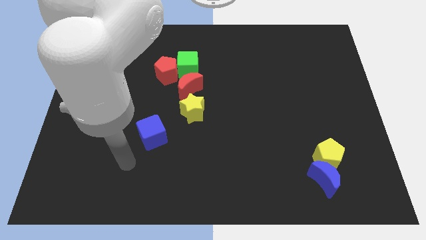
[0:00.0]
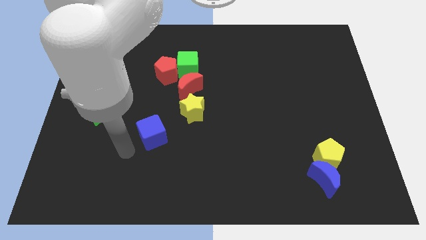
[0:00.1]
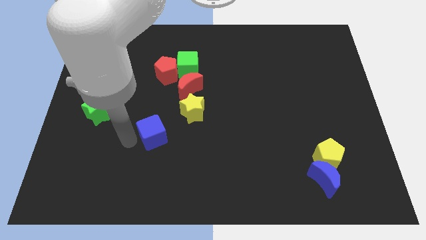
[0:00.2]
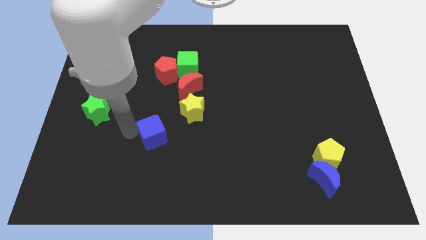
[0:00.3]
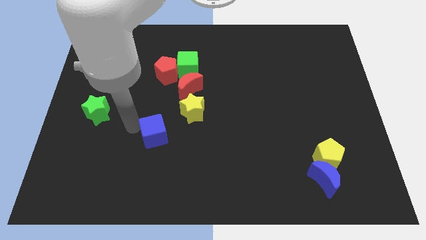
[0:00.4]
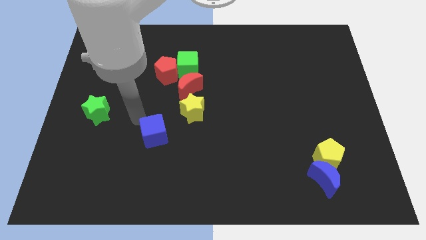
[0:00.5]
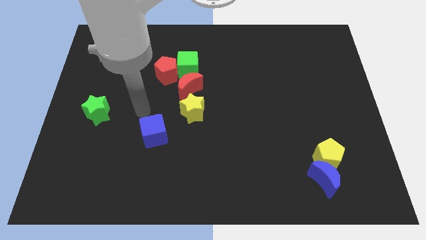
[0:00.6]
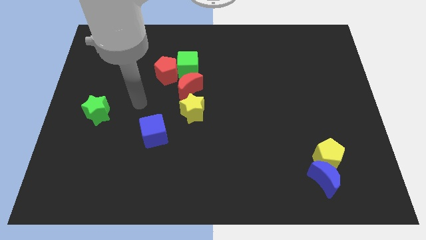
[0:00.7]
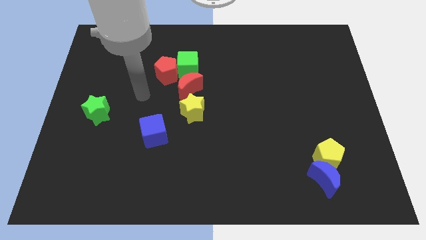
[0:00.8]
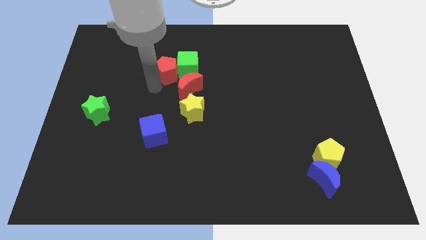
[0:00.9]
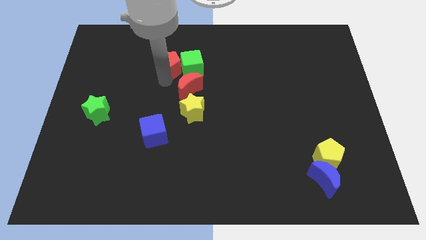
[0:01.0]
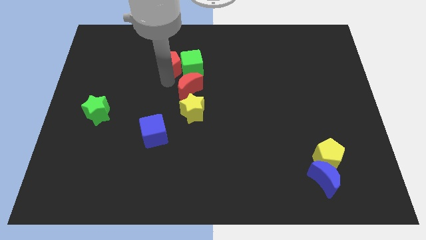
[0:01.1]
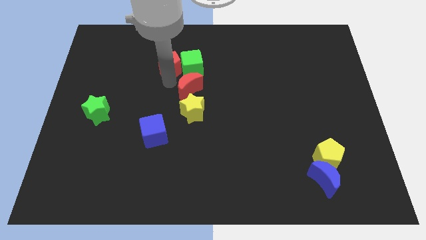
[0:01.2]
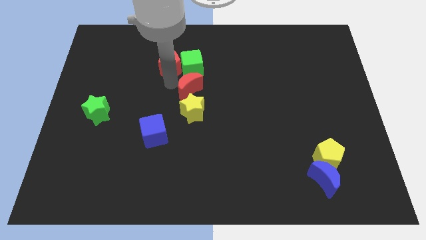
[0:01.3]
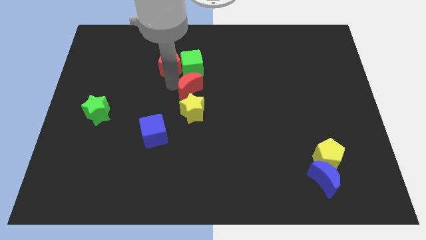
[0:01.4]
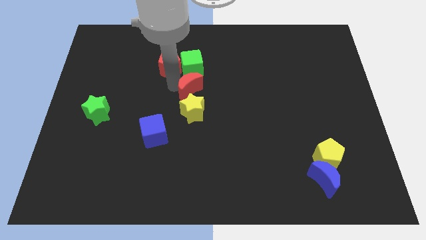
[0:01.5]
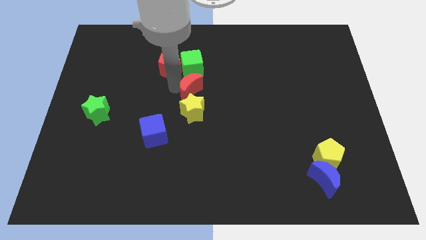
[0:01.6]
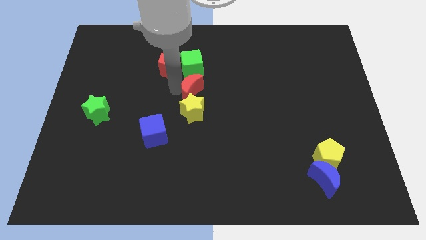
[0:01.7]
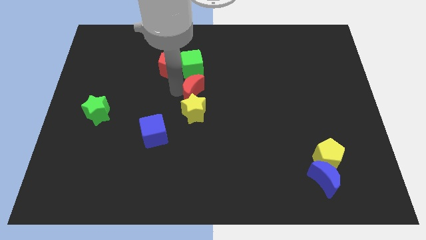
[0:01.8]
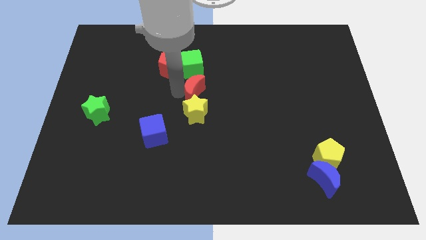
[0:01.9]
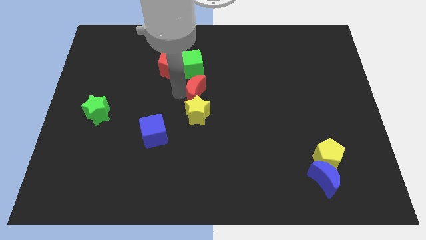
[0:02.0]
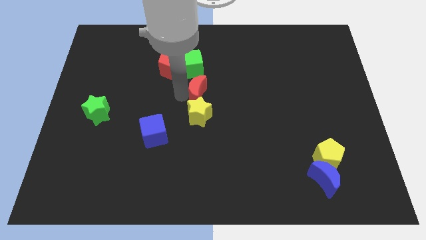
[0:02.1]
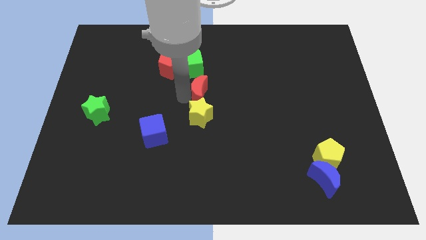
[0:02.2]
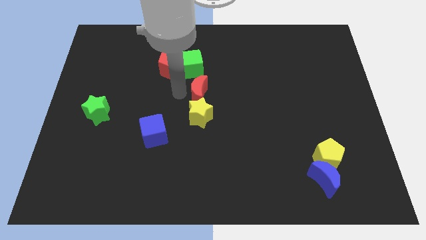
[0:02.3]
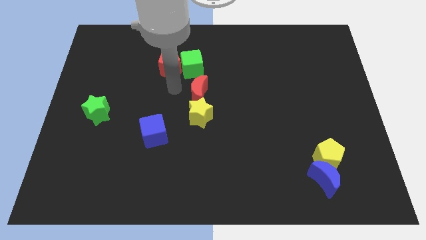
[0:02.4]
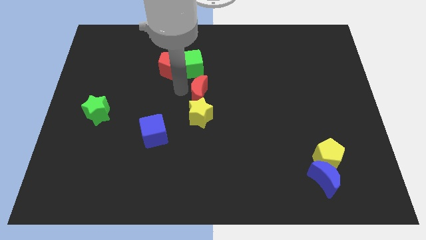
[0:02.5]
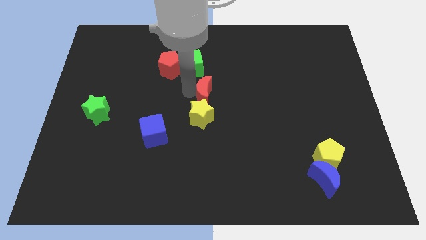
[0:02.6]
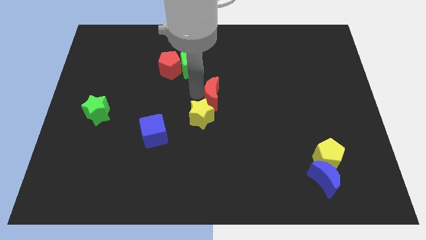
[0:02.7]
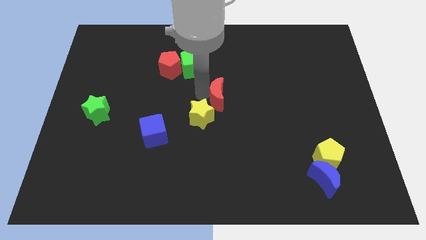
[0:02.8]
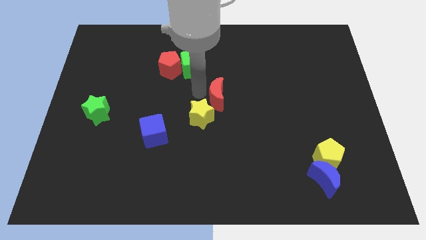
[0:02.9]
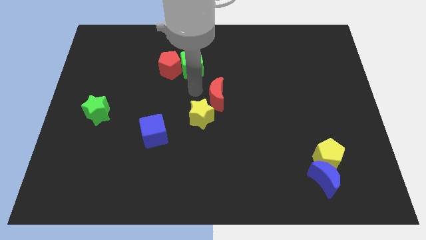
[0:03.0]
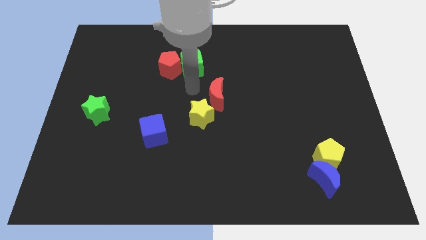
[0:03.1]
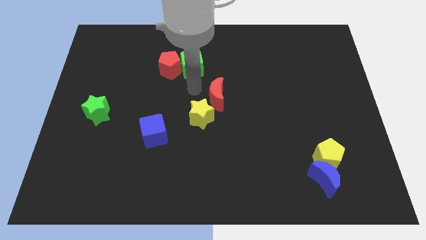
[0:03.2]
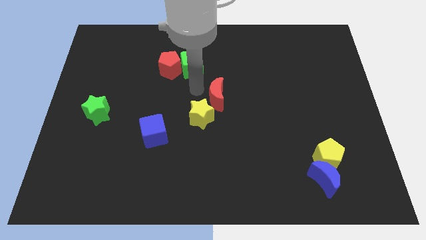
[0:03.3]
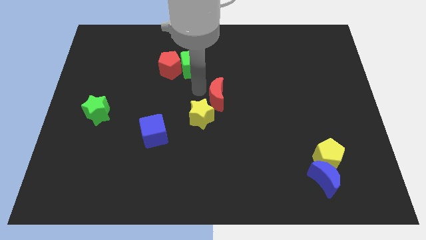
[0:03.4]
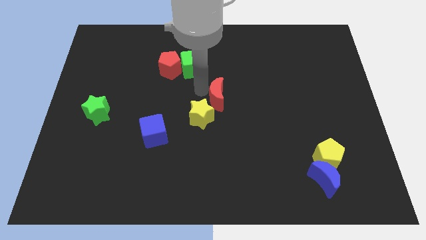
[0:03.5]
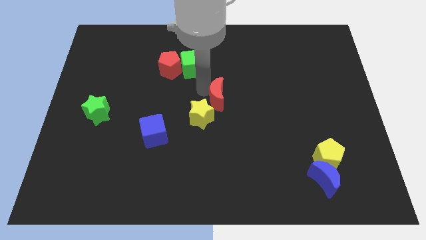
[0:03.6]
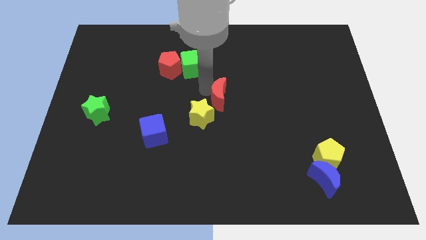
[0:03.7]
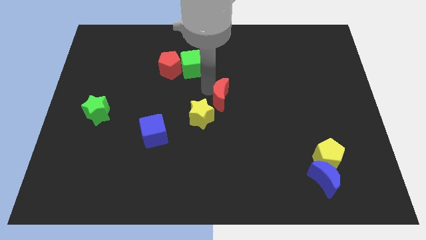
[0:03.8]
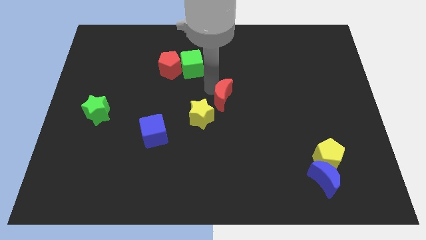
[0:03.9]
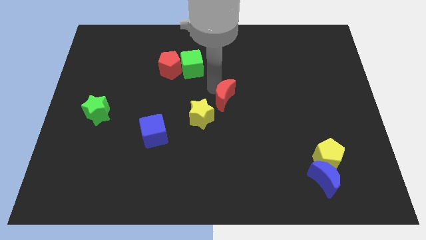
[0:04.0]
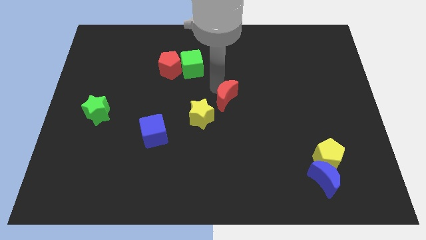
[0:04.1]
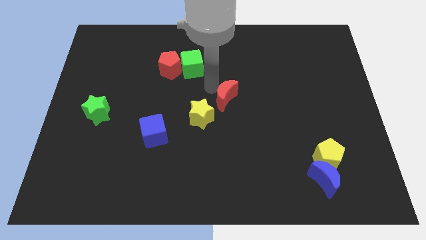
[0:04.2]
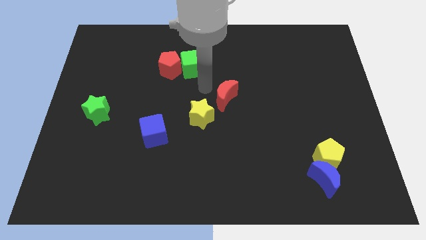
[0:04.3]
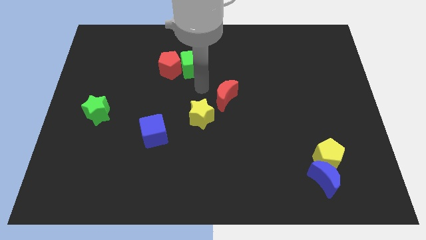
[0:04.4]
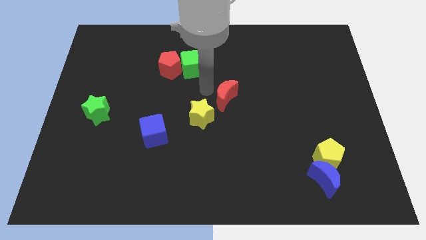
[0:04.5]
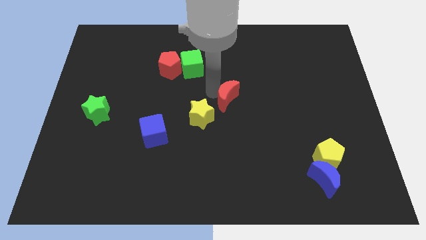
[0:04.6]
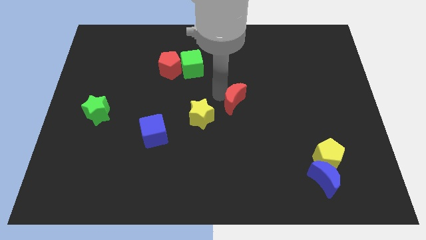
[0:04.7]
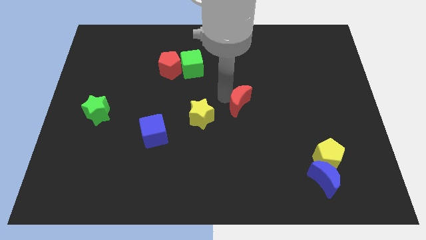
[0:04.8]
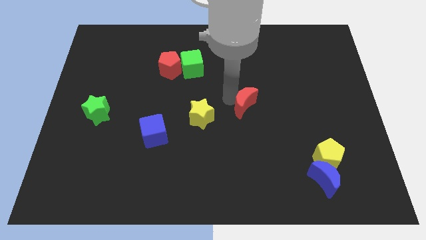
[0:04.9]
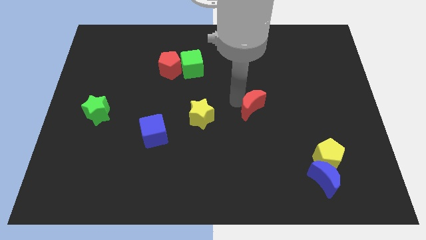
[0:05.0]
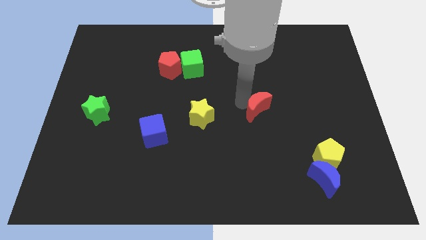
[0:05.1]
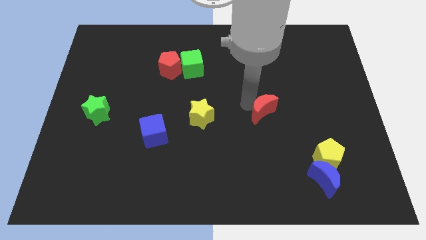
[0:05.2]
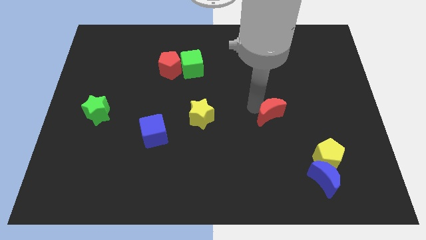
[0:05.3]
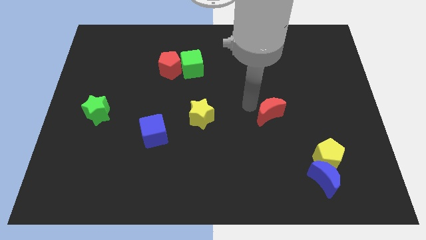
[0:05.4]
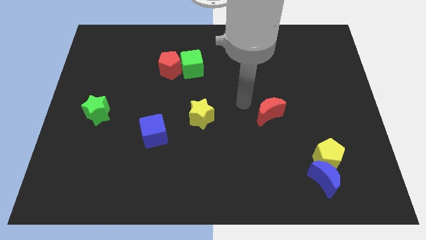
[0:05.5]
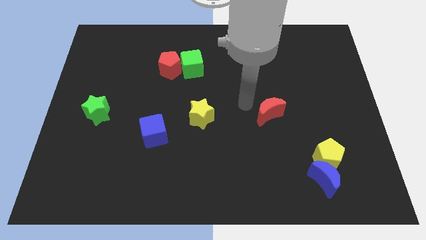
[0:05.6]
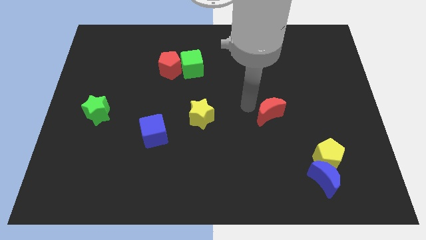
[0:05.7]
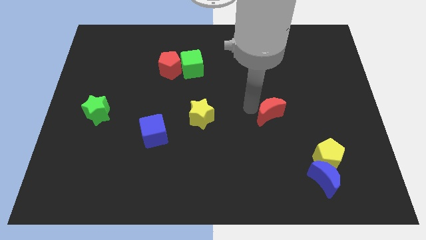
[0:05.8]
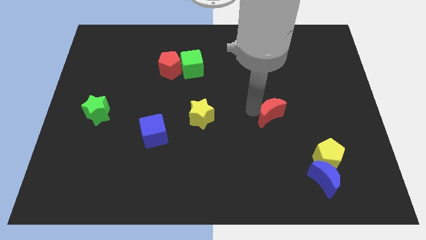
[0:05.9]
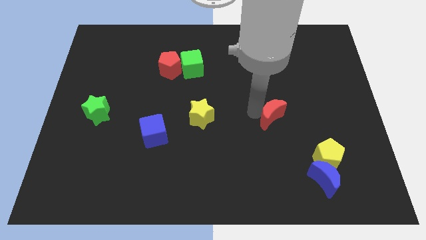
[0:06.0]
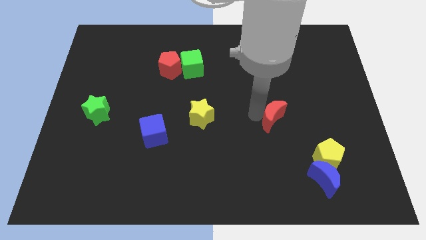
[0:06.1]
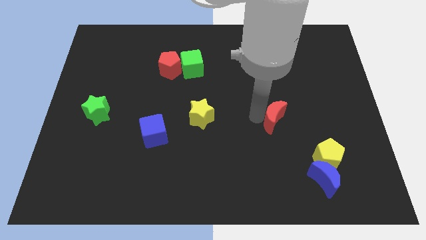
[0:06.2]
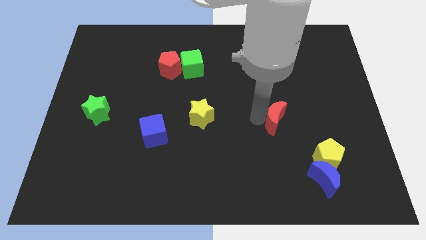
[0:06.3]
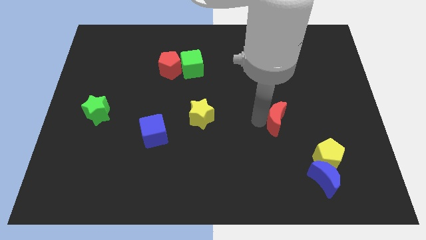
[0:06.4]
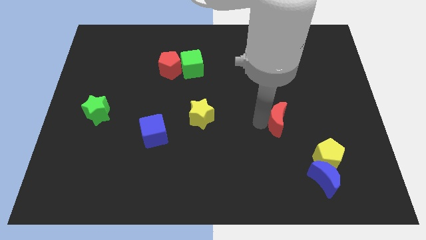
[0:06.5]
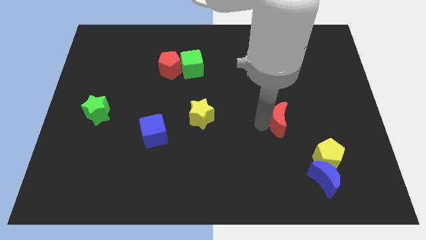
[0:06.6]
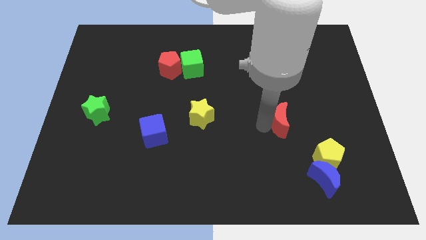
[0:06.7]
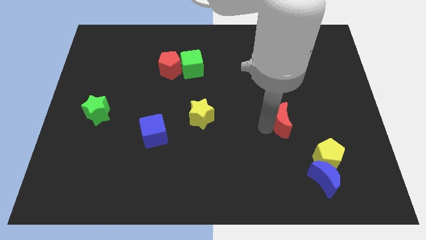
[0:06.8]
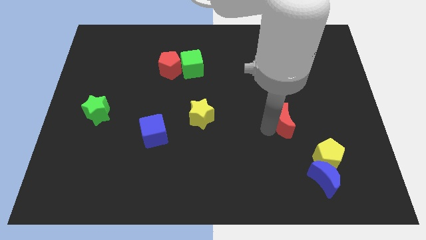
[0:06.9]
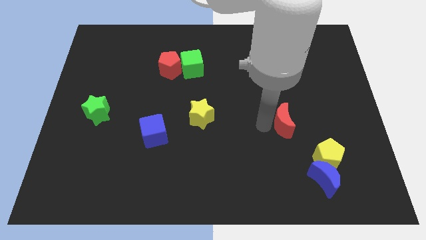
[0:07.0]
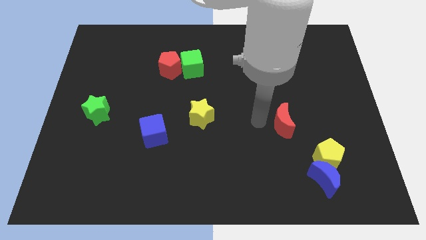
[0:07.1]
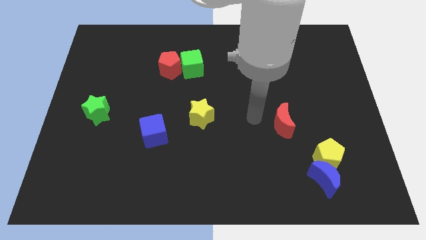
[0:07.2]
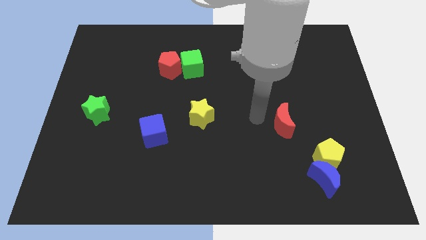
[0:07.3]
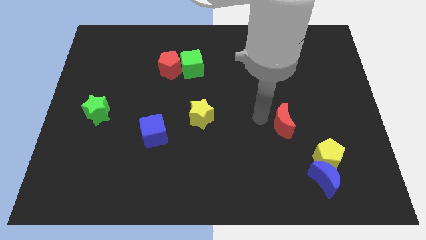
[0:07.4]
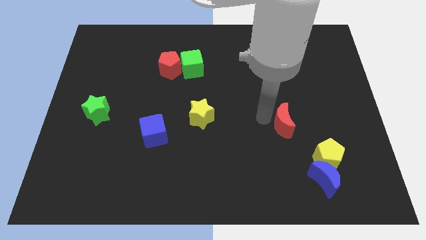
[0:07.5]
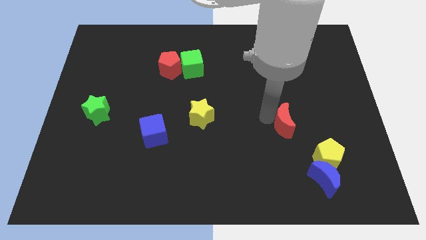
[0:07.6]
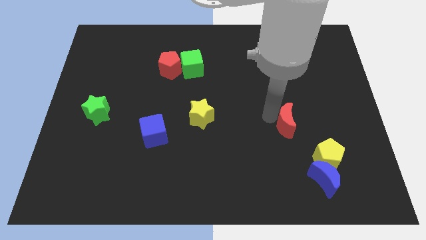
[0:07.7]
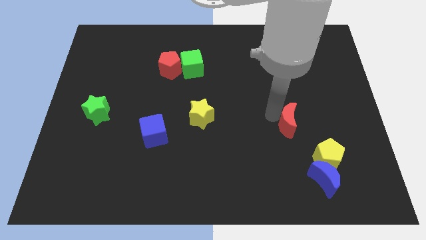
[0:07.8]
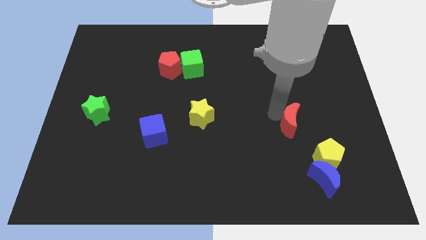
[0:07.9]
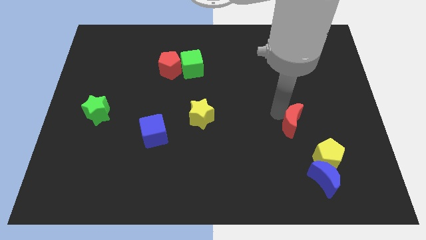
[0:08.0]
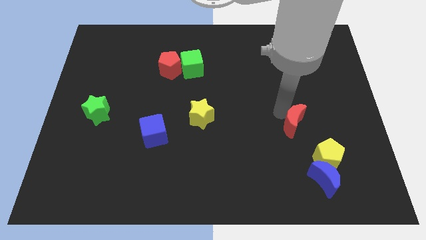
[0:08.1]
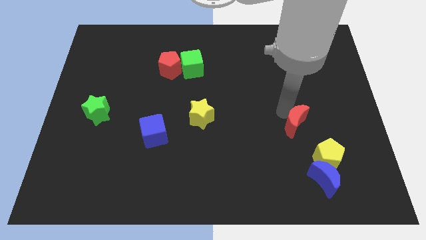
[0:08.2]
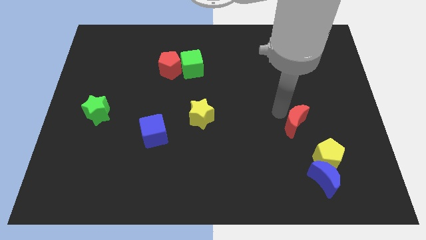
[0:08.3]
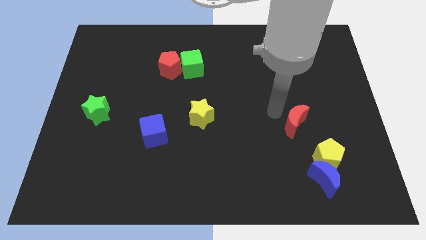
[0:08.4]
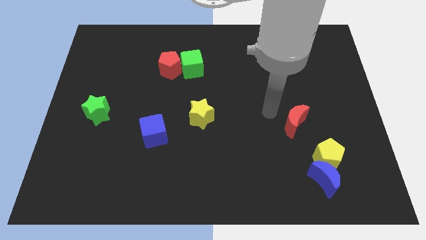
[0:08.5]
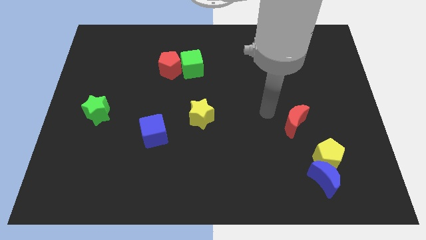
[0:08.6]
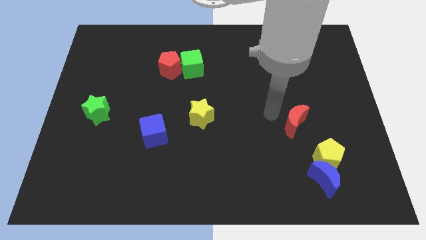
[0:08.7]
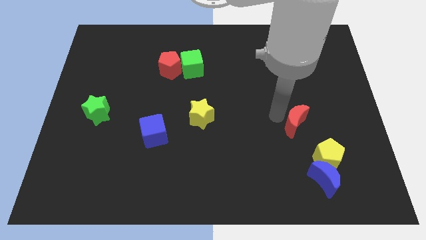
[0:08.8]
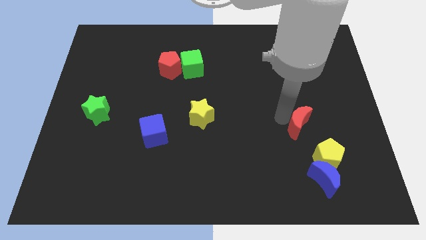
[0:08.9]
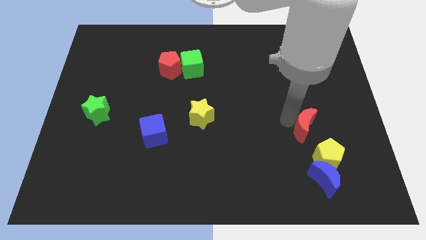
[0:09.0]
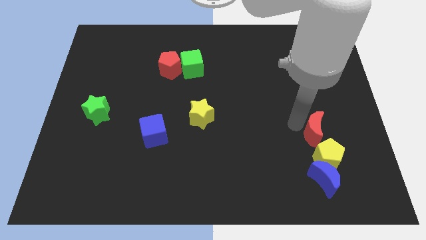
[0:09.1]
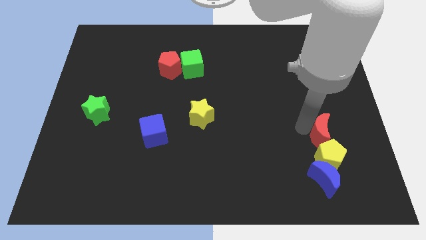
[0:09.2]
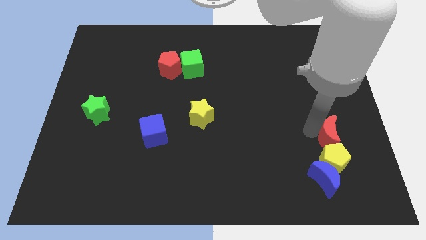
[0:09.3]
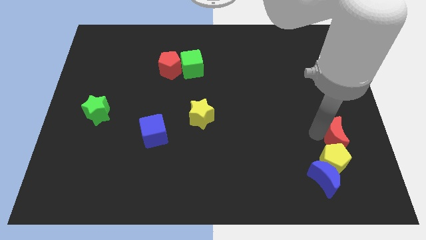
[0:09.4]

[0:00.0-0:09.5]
slide the red moon to the top right side of the blue moon
